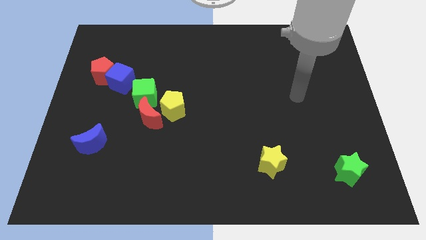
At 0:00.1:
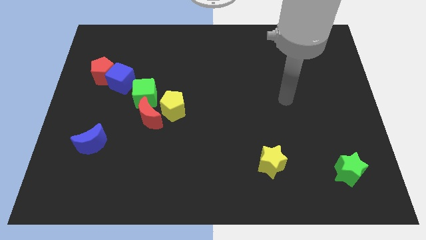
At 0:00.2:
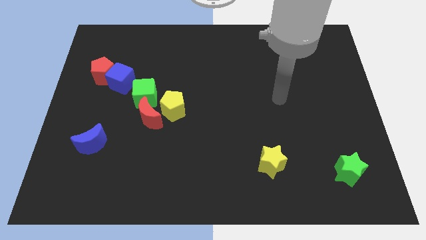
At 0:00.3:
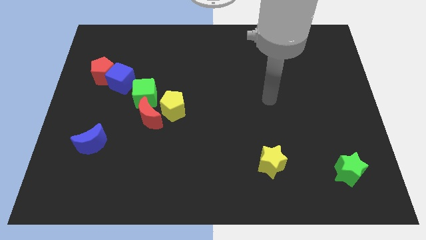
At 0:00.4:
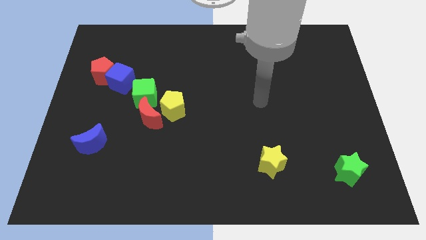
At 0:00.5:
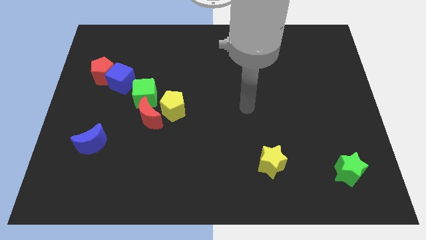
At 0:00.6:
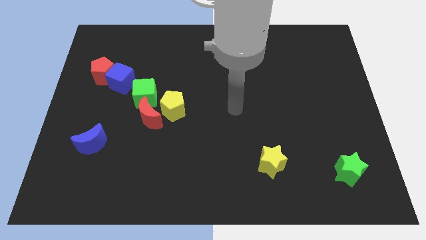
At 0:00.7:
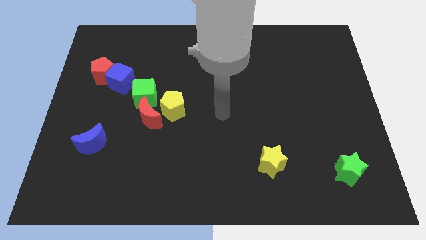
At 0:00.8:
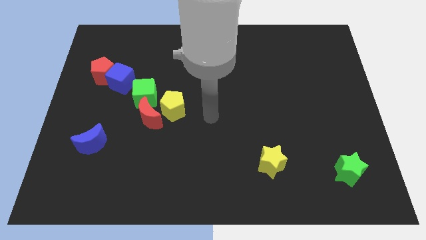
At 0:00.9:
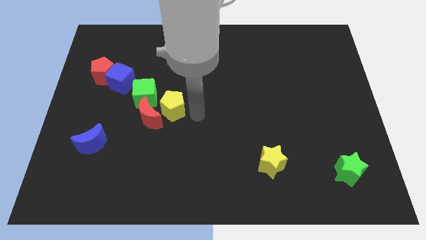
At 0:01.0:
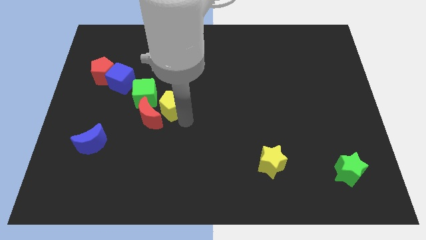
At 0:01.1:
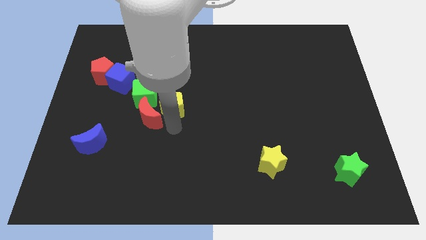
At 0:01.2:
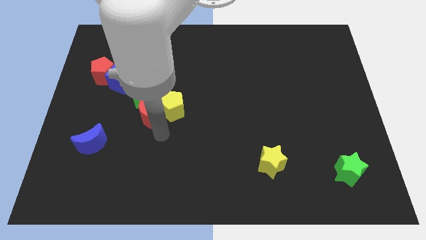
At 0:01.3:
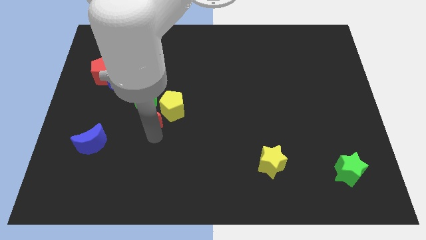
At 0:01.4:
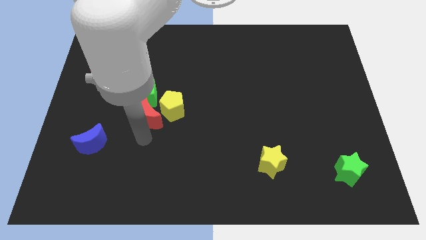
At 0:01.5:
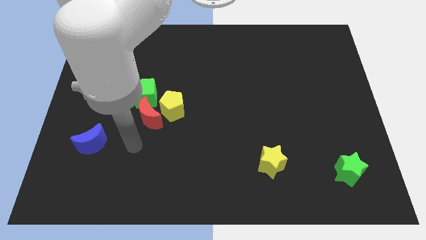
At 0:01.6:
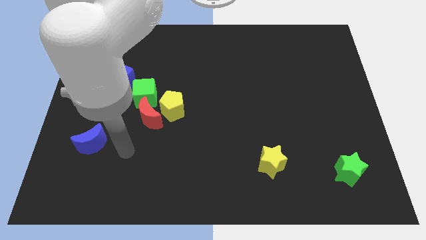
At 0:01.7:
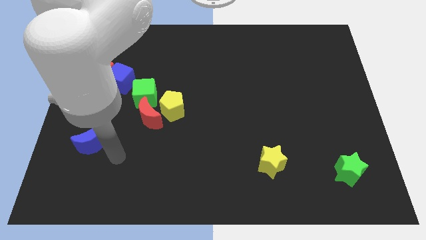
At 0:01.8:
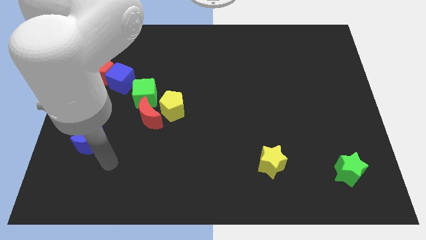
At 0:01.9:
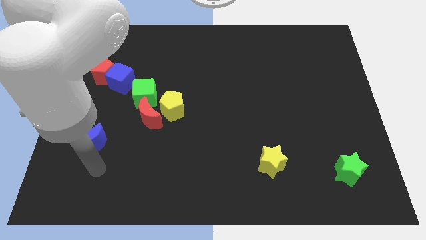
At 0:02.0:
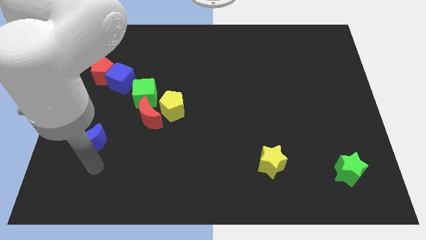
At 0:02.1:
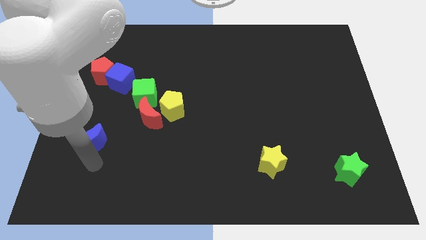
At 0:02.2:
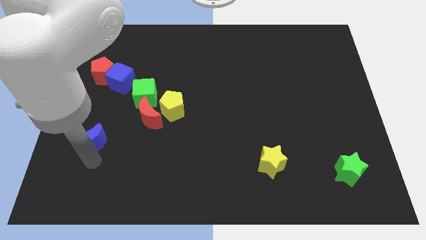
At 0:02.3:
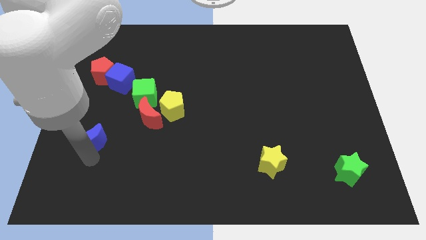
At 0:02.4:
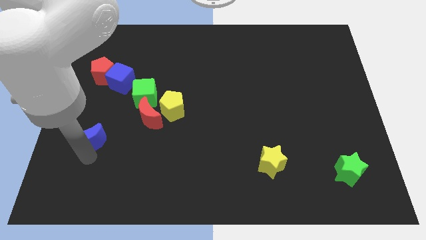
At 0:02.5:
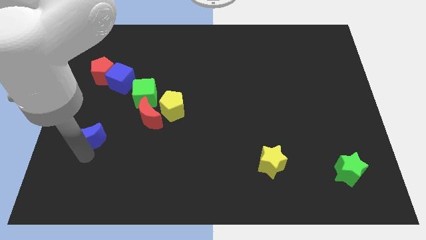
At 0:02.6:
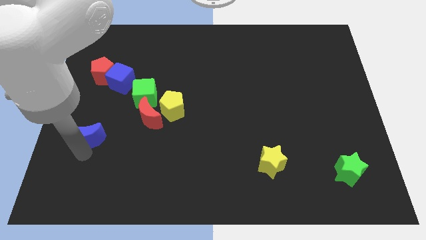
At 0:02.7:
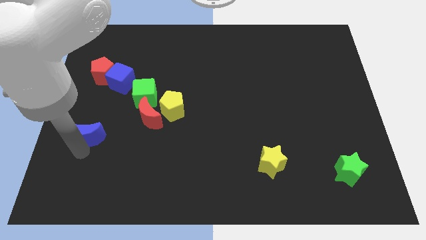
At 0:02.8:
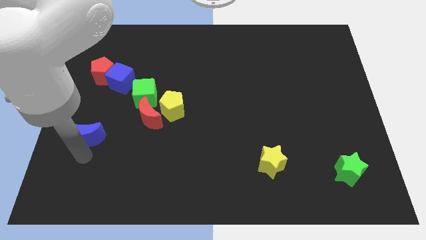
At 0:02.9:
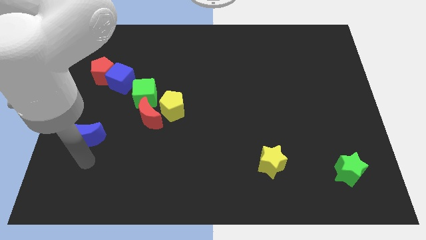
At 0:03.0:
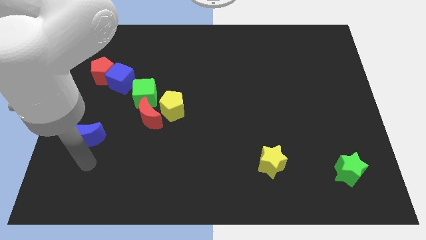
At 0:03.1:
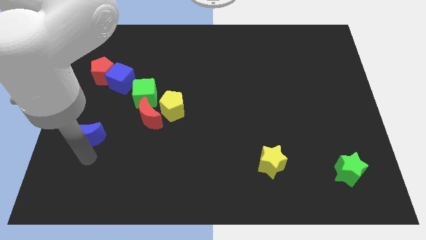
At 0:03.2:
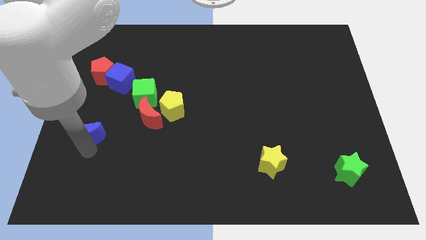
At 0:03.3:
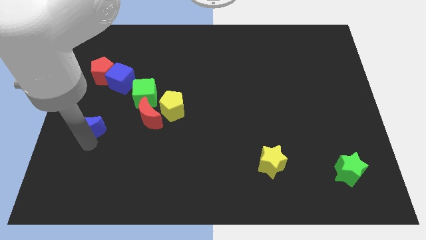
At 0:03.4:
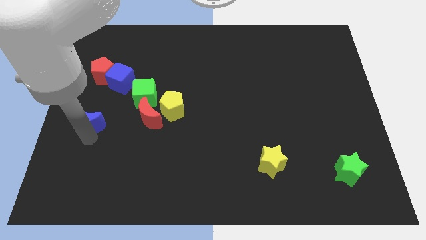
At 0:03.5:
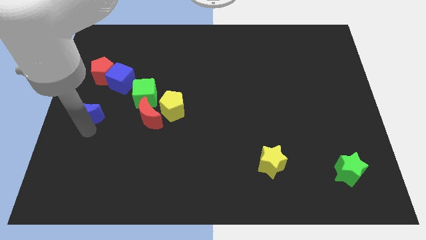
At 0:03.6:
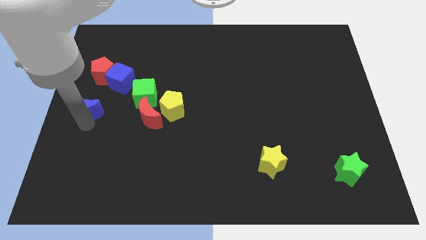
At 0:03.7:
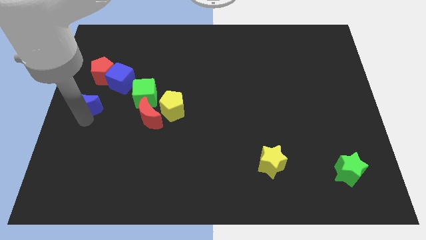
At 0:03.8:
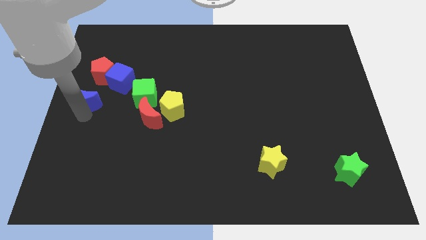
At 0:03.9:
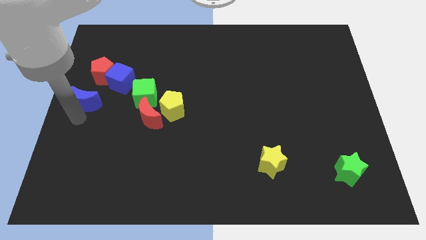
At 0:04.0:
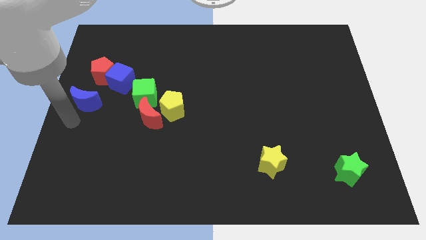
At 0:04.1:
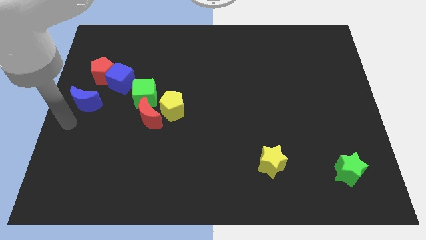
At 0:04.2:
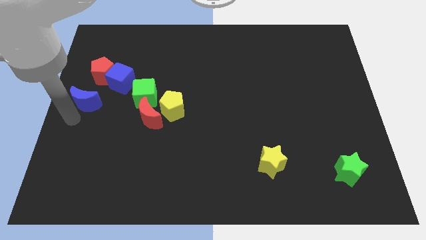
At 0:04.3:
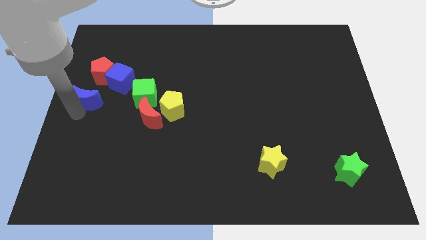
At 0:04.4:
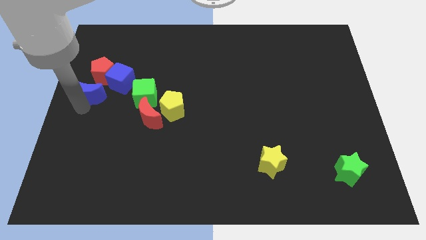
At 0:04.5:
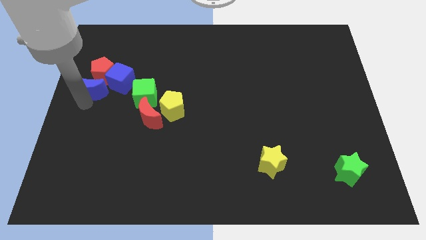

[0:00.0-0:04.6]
put the blue moon towards the red pentagon

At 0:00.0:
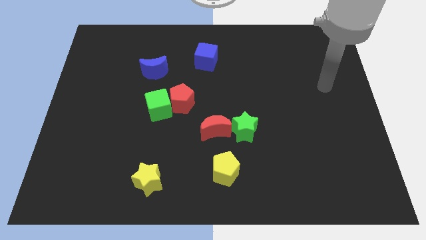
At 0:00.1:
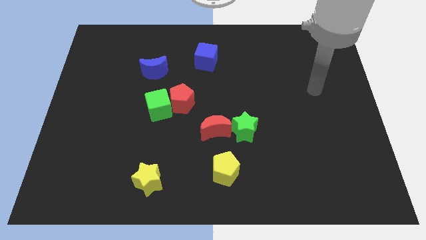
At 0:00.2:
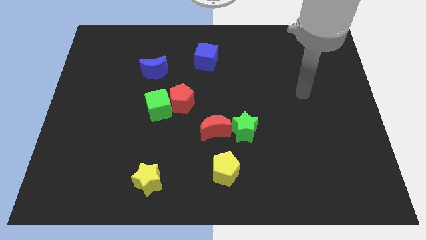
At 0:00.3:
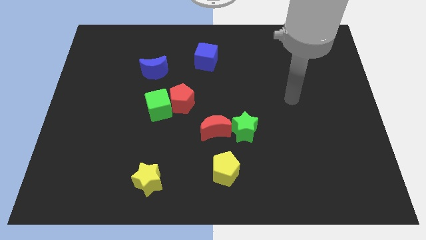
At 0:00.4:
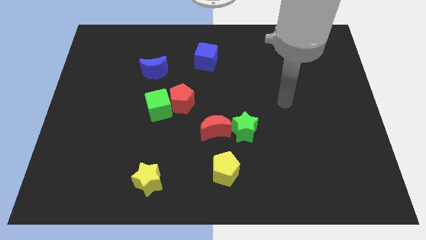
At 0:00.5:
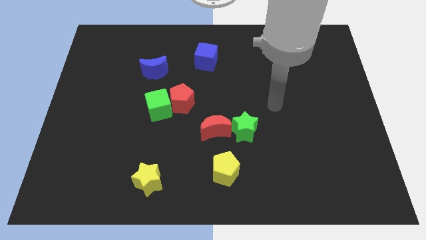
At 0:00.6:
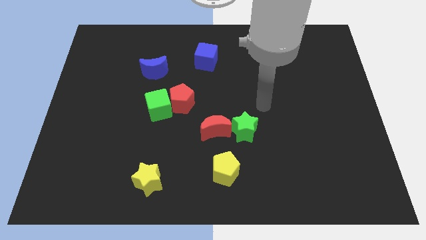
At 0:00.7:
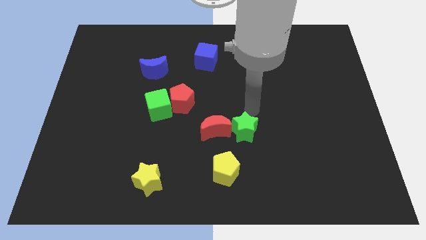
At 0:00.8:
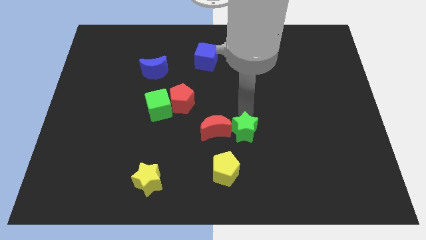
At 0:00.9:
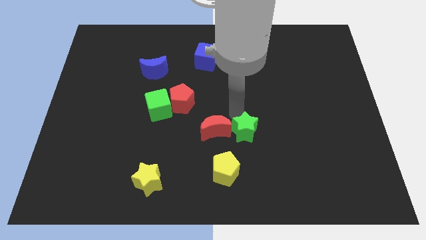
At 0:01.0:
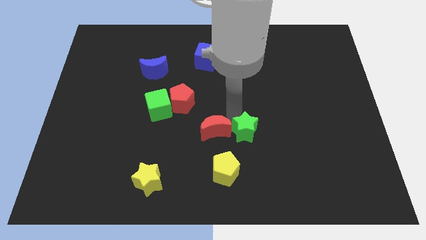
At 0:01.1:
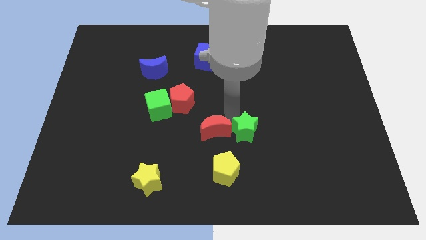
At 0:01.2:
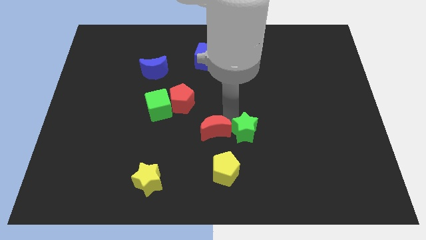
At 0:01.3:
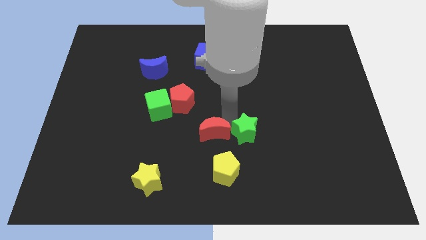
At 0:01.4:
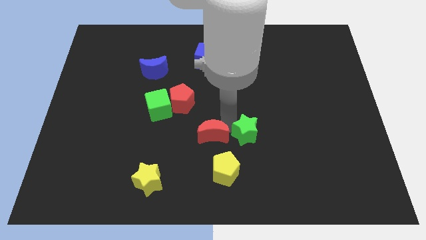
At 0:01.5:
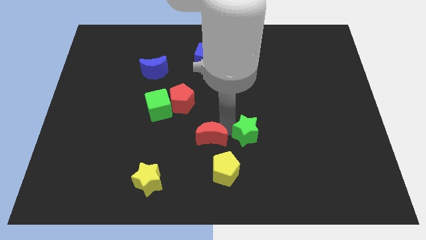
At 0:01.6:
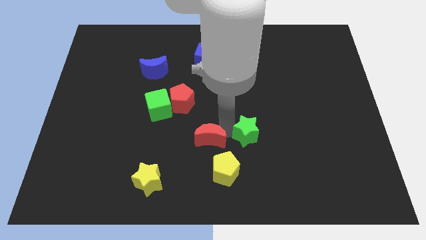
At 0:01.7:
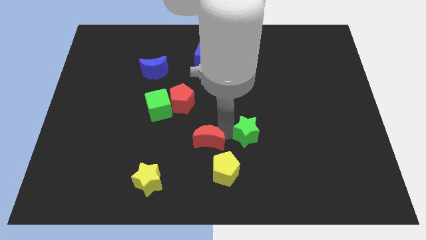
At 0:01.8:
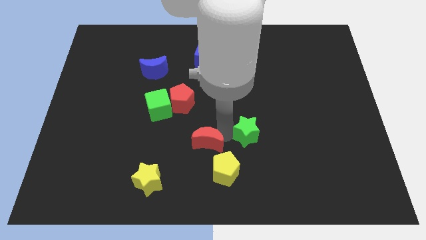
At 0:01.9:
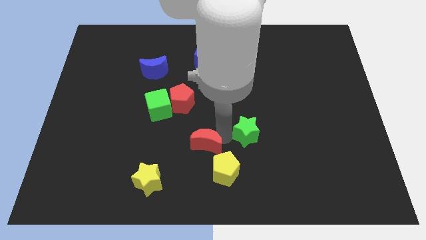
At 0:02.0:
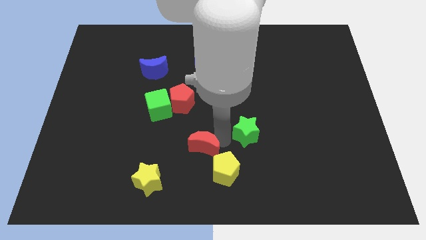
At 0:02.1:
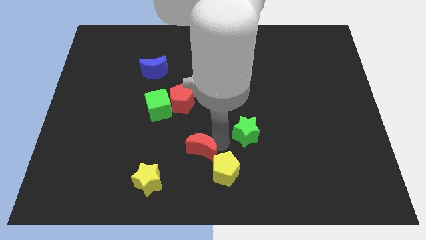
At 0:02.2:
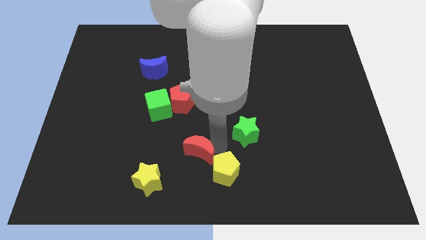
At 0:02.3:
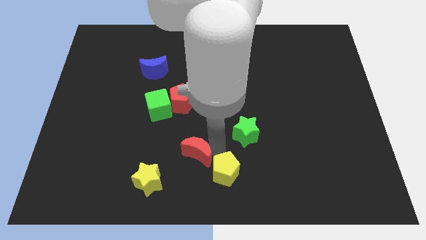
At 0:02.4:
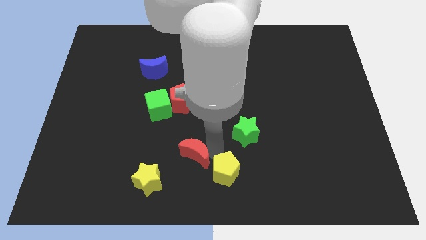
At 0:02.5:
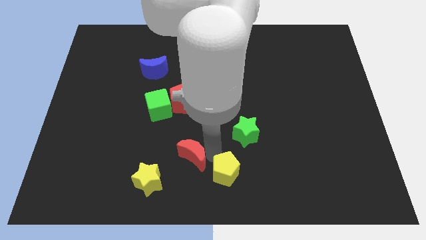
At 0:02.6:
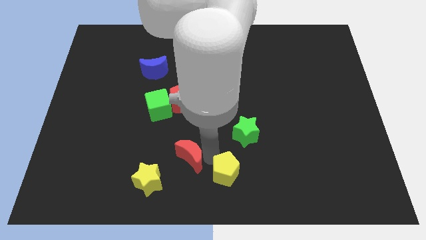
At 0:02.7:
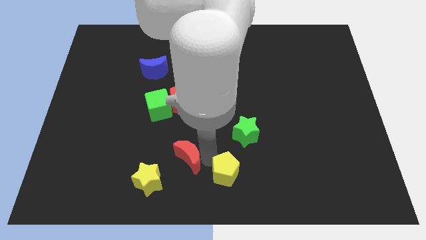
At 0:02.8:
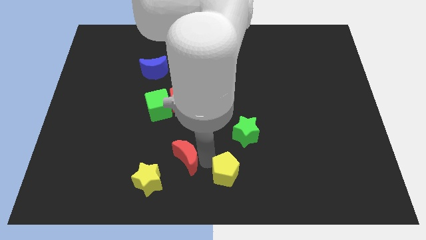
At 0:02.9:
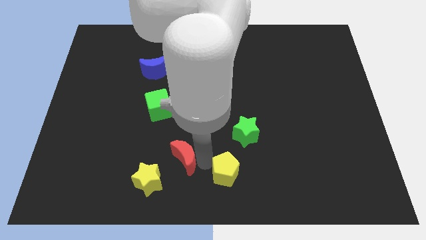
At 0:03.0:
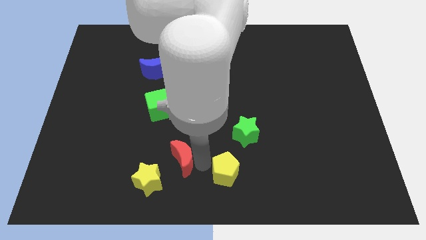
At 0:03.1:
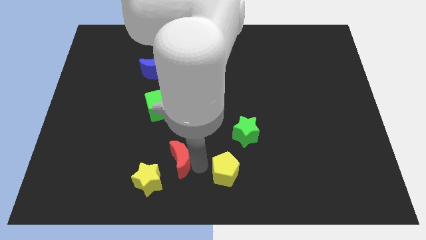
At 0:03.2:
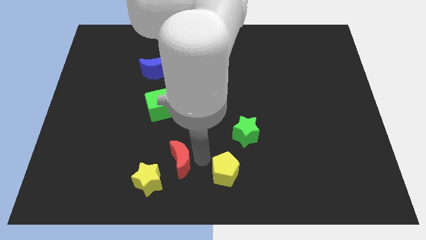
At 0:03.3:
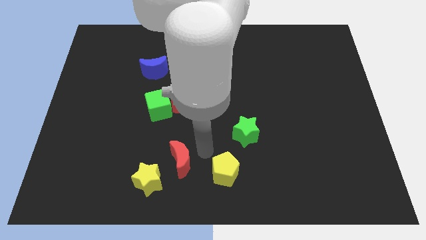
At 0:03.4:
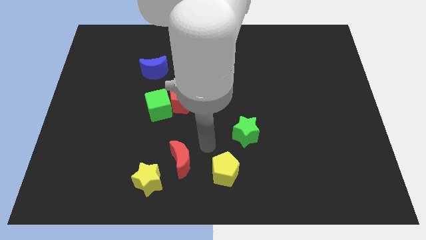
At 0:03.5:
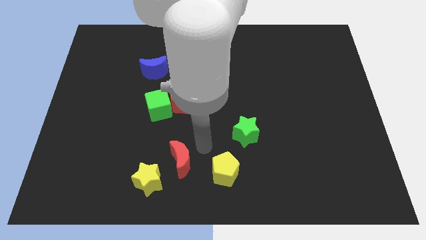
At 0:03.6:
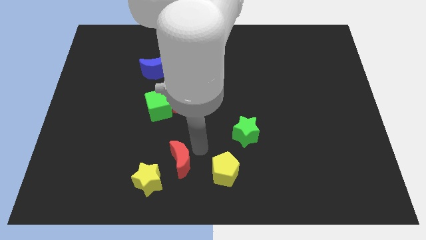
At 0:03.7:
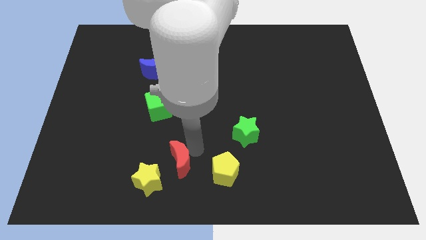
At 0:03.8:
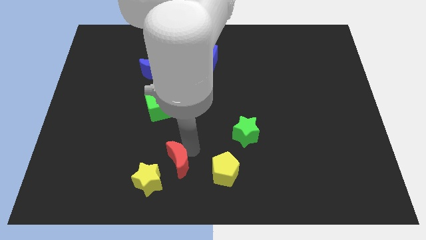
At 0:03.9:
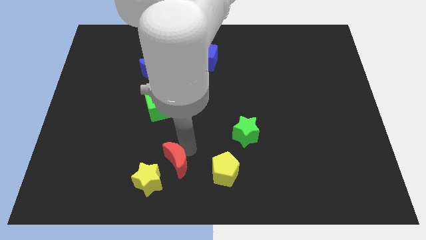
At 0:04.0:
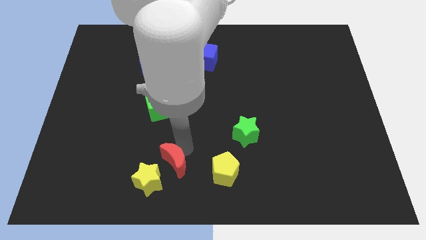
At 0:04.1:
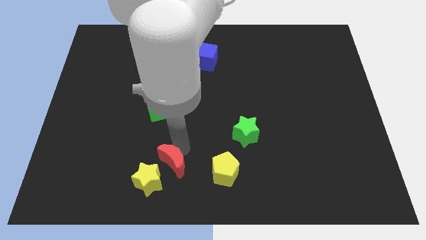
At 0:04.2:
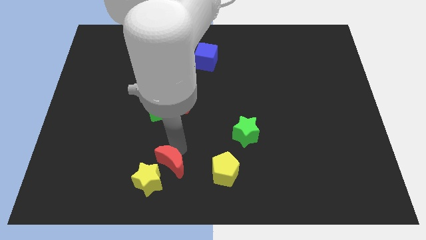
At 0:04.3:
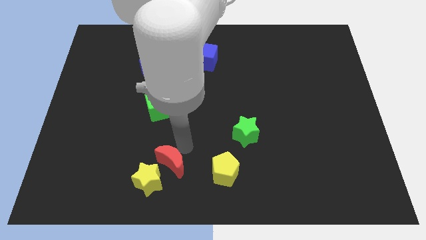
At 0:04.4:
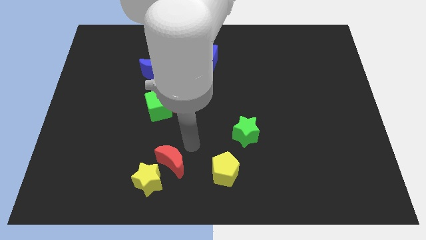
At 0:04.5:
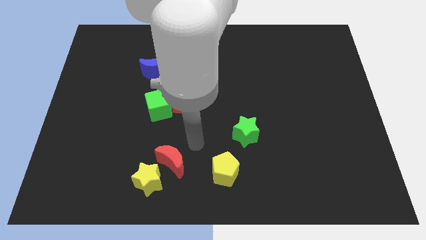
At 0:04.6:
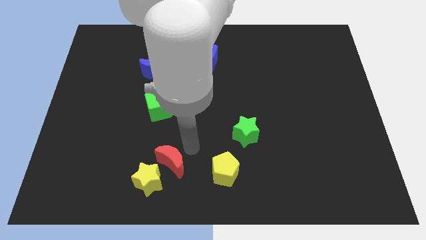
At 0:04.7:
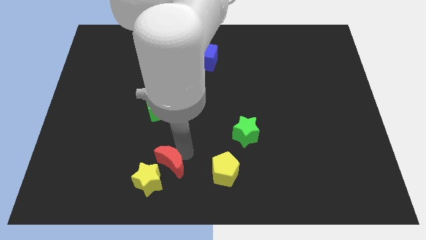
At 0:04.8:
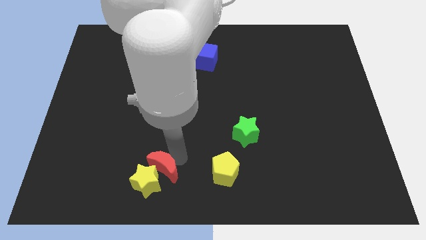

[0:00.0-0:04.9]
push the red moon close to the yellow star
